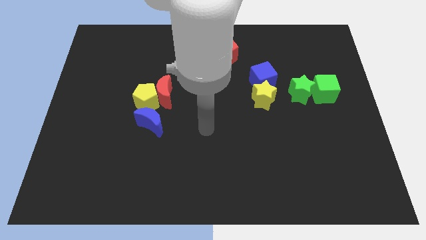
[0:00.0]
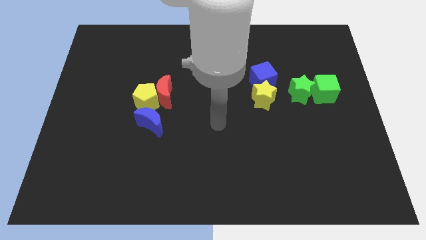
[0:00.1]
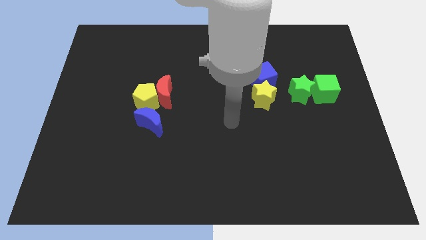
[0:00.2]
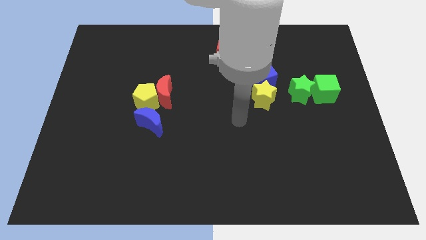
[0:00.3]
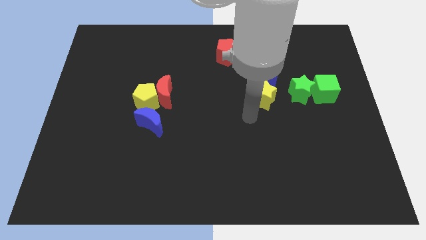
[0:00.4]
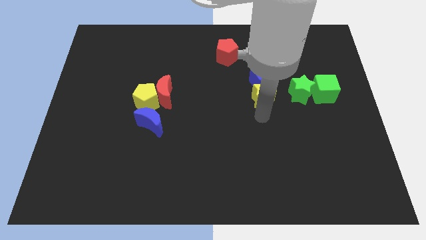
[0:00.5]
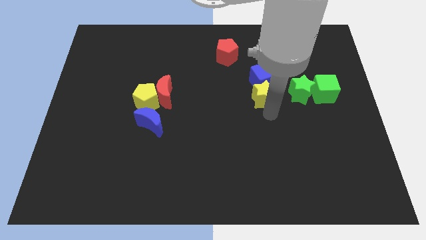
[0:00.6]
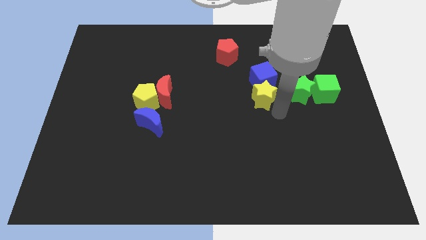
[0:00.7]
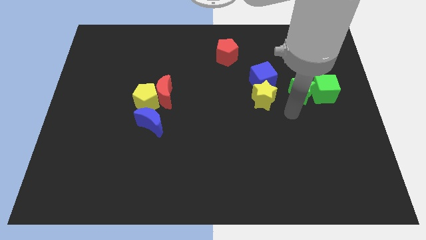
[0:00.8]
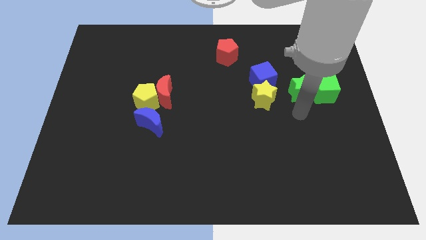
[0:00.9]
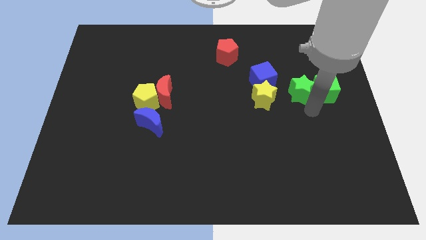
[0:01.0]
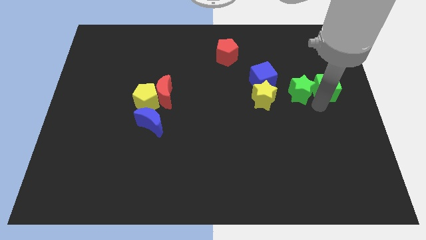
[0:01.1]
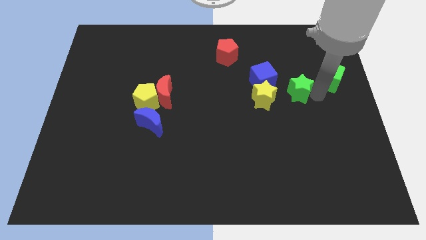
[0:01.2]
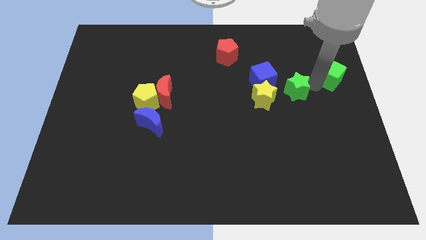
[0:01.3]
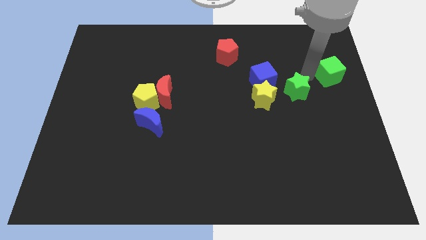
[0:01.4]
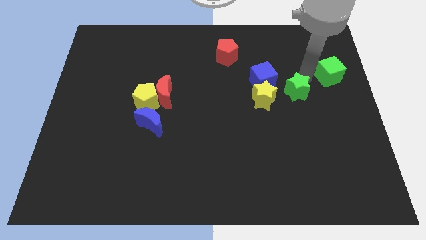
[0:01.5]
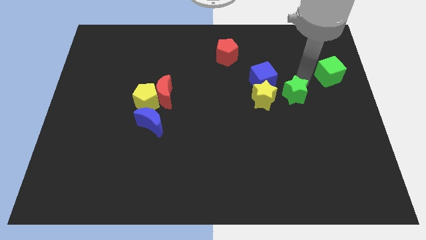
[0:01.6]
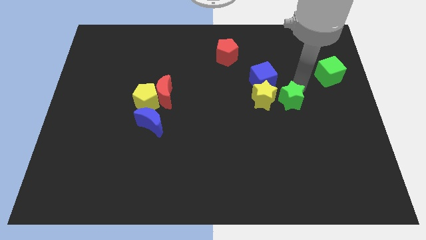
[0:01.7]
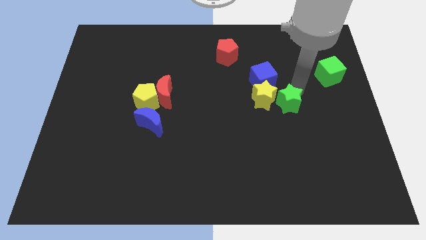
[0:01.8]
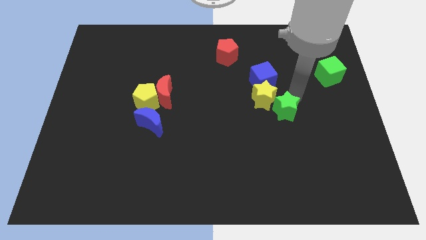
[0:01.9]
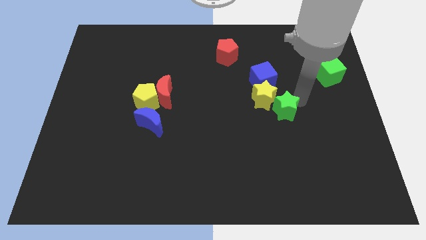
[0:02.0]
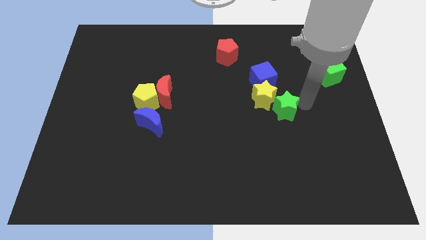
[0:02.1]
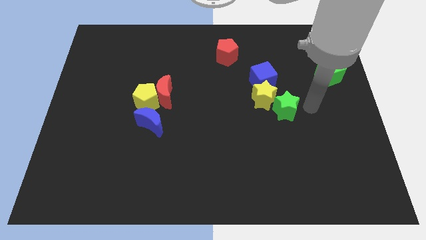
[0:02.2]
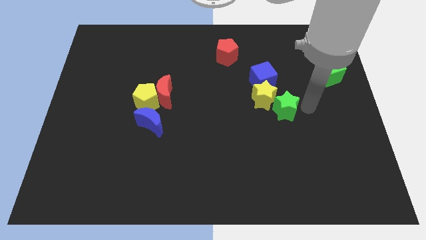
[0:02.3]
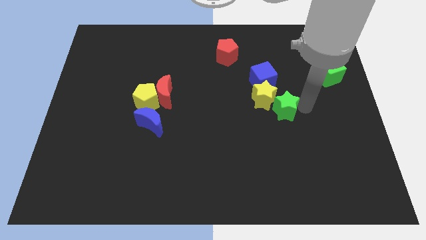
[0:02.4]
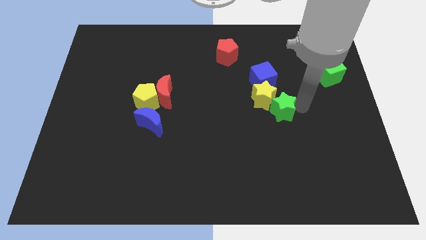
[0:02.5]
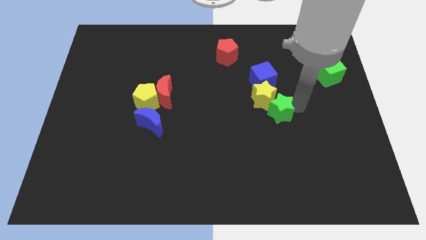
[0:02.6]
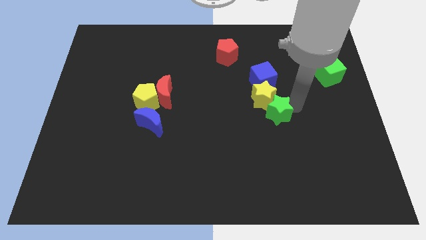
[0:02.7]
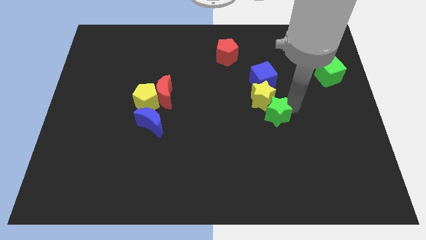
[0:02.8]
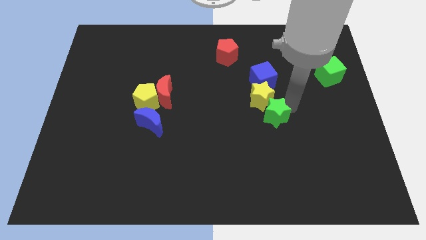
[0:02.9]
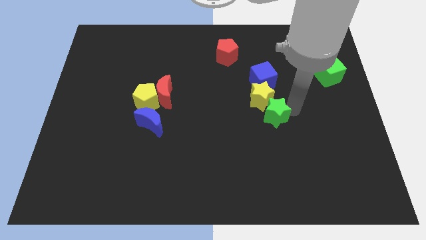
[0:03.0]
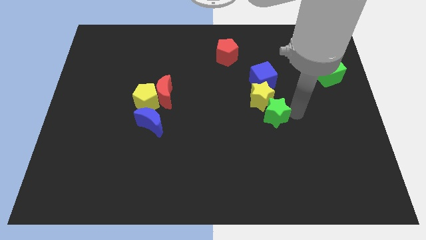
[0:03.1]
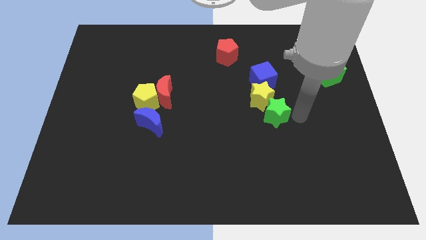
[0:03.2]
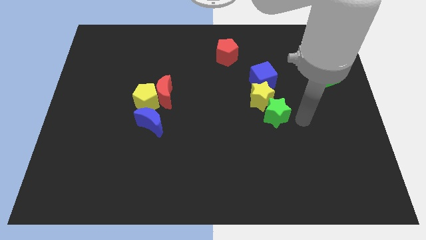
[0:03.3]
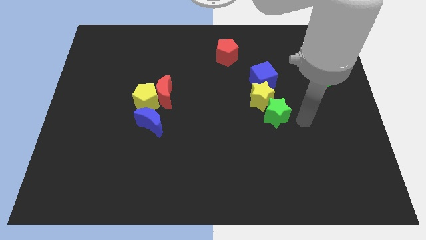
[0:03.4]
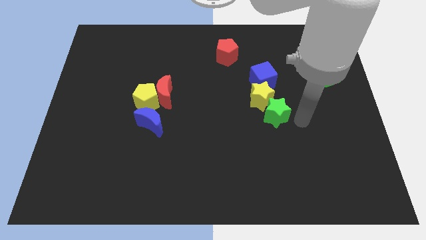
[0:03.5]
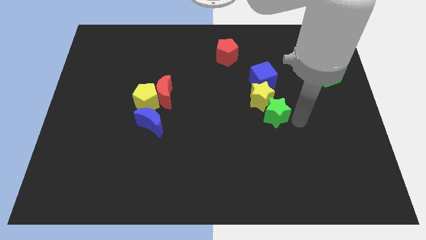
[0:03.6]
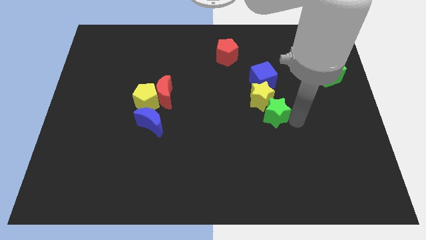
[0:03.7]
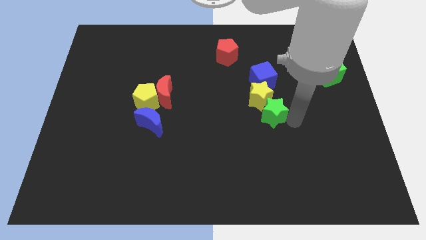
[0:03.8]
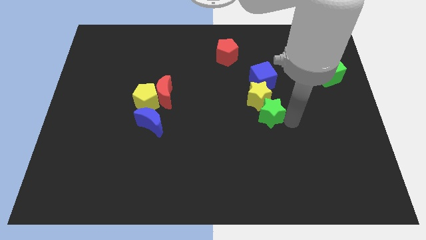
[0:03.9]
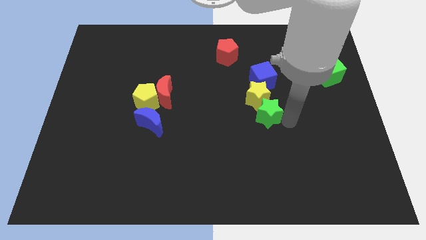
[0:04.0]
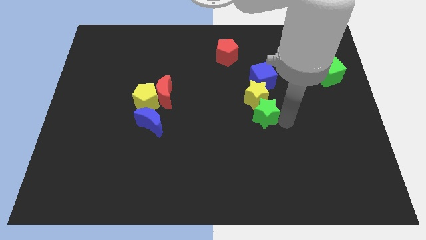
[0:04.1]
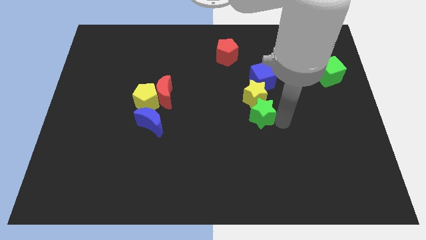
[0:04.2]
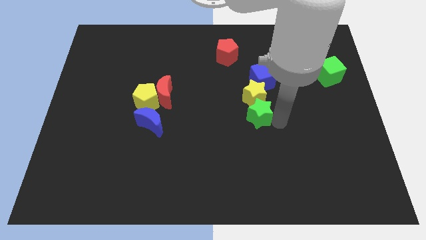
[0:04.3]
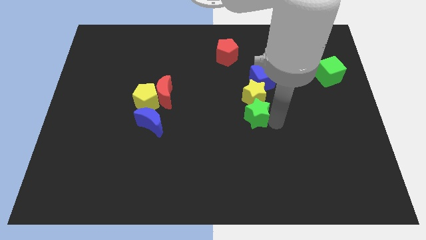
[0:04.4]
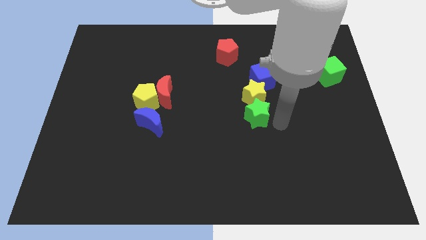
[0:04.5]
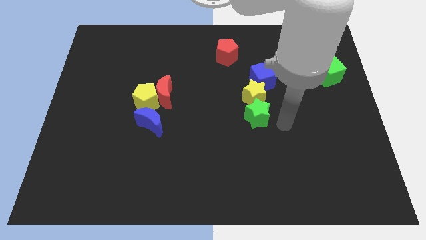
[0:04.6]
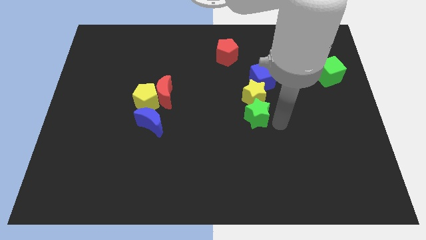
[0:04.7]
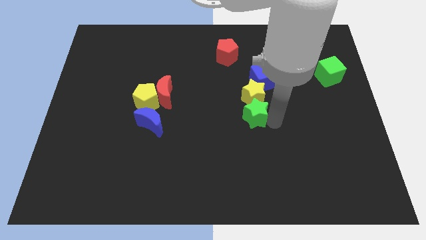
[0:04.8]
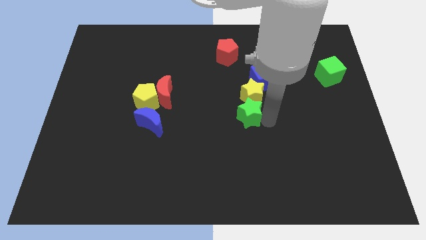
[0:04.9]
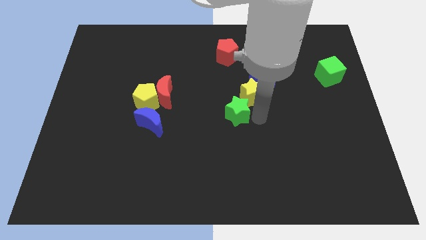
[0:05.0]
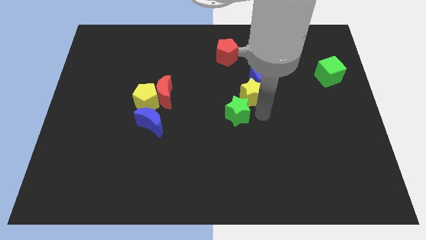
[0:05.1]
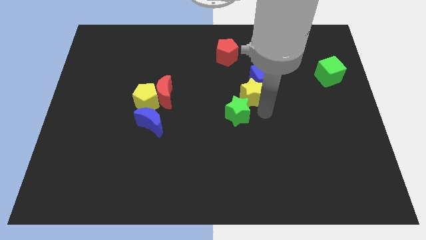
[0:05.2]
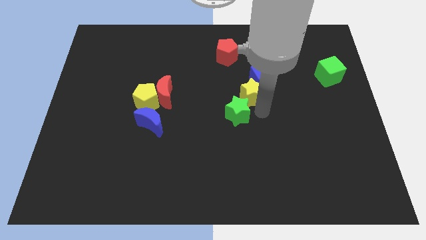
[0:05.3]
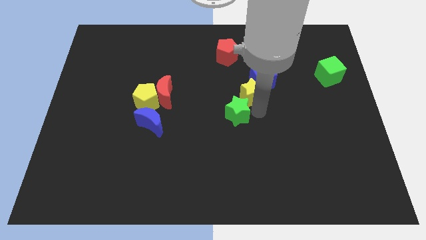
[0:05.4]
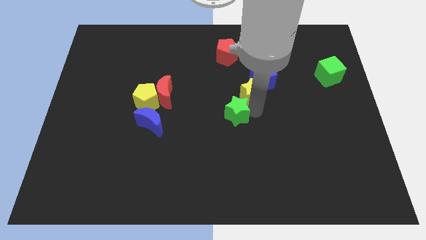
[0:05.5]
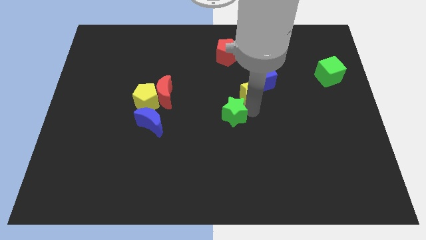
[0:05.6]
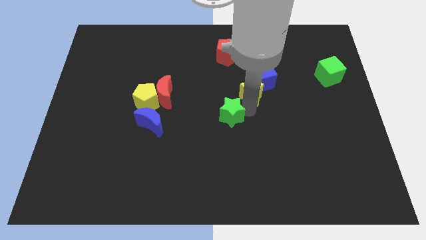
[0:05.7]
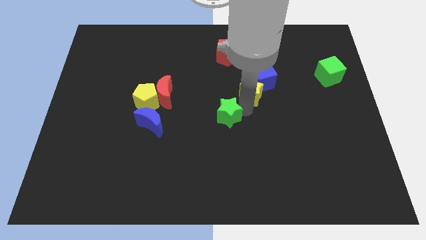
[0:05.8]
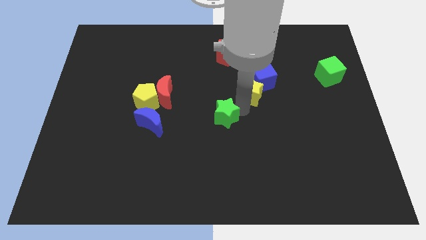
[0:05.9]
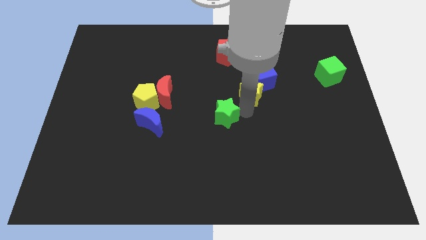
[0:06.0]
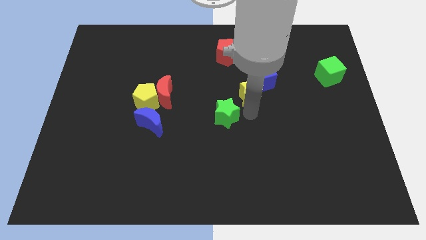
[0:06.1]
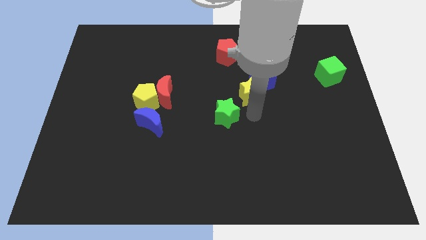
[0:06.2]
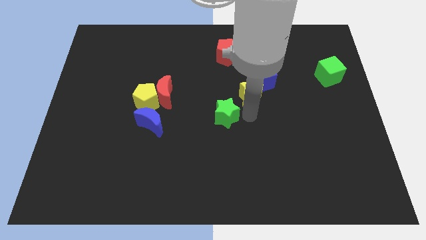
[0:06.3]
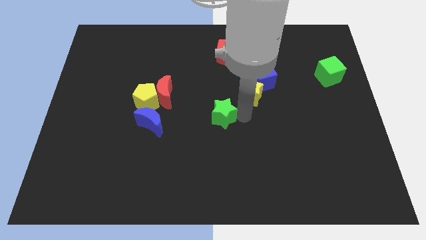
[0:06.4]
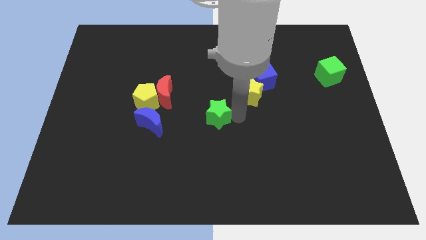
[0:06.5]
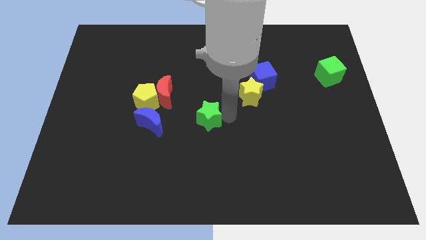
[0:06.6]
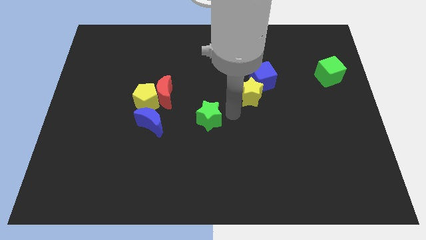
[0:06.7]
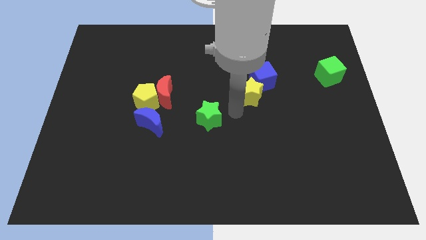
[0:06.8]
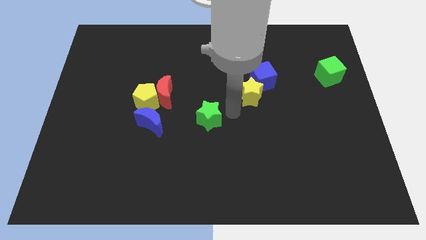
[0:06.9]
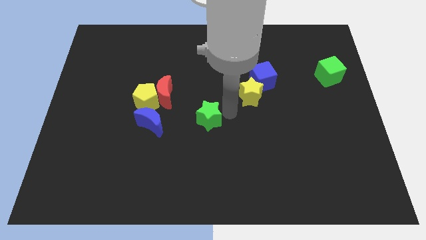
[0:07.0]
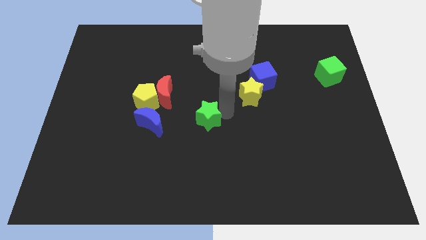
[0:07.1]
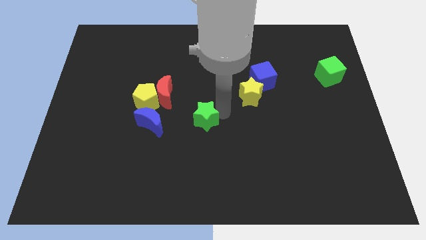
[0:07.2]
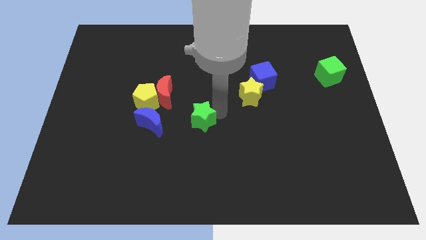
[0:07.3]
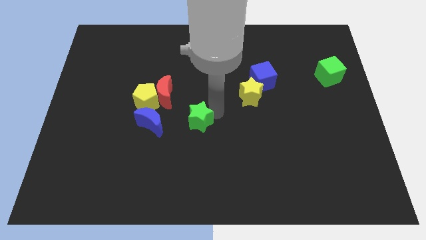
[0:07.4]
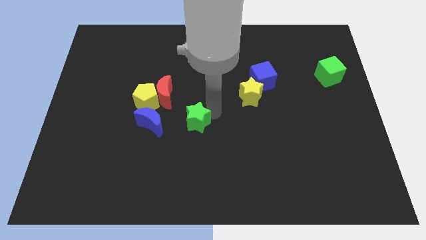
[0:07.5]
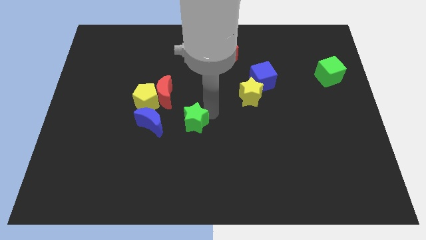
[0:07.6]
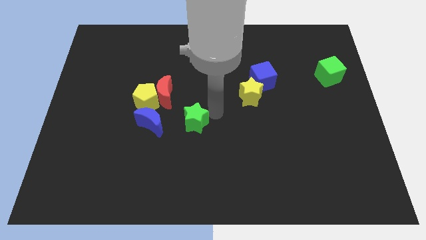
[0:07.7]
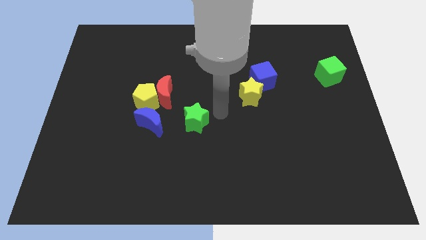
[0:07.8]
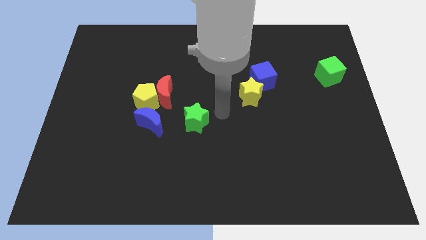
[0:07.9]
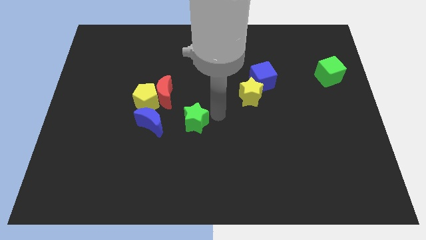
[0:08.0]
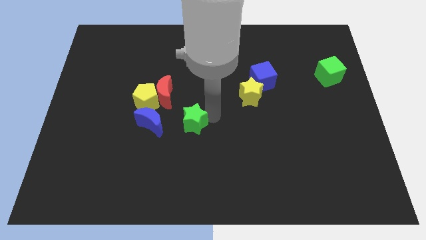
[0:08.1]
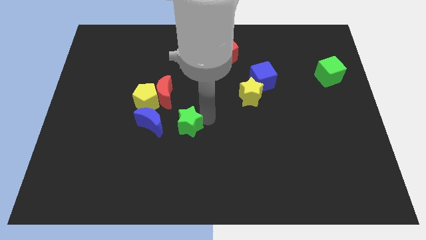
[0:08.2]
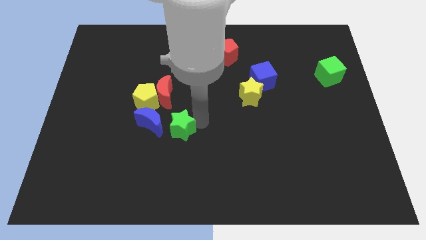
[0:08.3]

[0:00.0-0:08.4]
put the green star below the red moon
